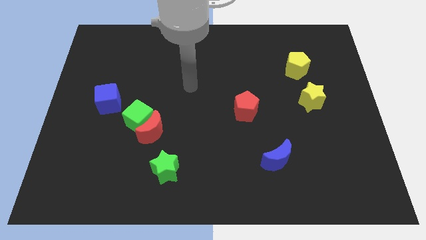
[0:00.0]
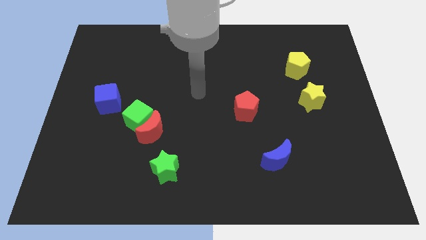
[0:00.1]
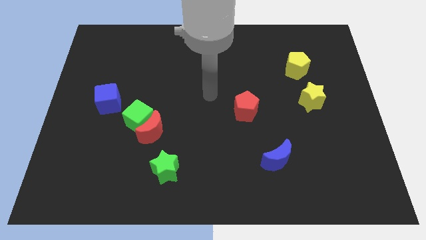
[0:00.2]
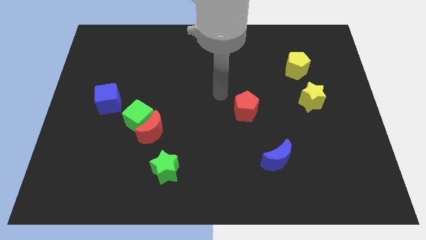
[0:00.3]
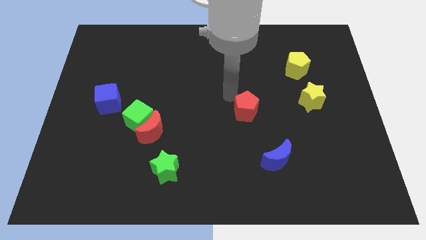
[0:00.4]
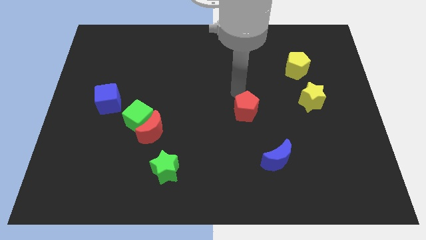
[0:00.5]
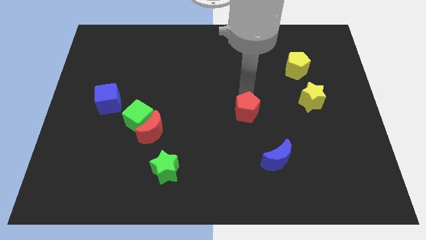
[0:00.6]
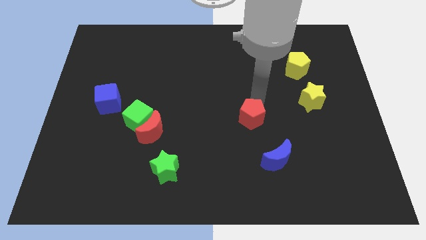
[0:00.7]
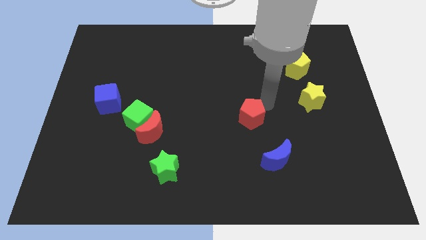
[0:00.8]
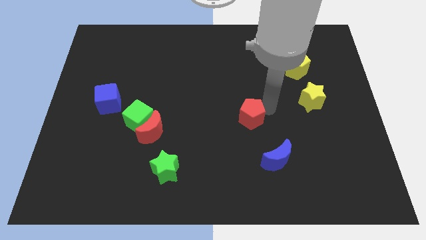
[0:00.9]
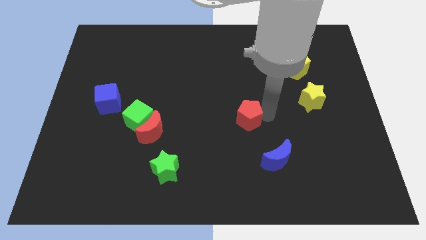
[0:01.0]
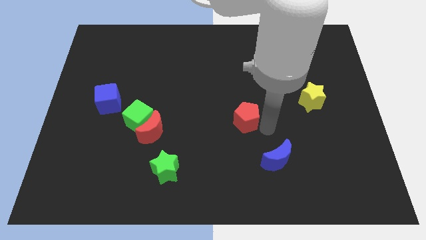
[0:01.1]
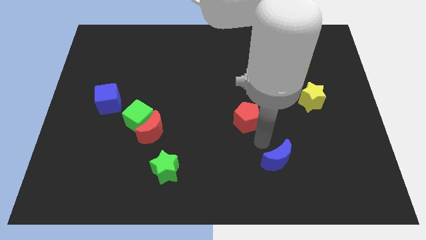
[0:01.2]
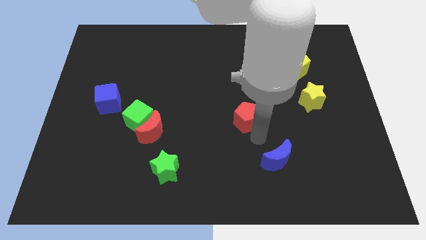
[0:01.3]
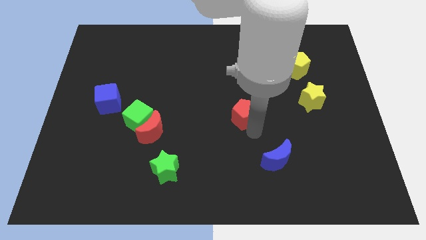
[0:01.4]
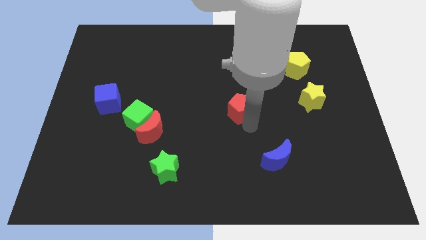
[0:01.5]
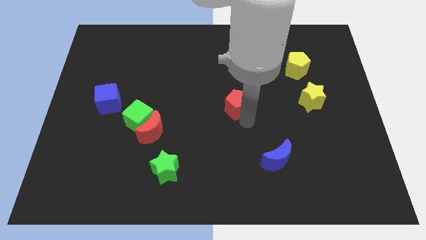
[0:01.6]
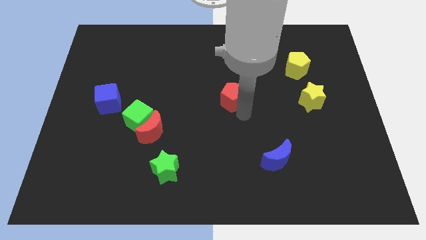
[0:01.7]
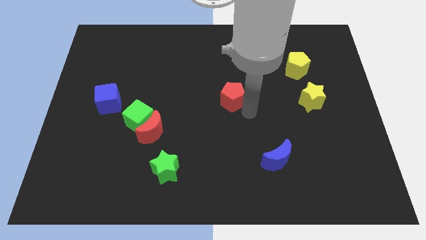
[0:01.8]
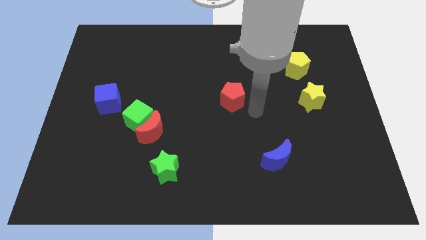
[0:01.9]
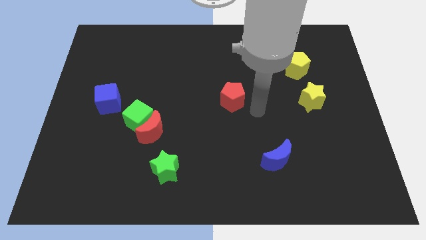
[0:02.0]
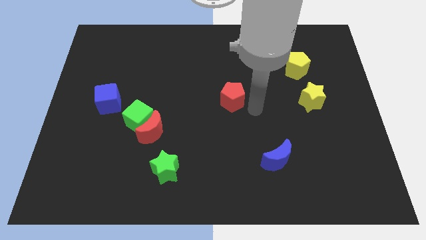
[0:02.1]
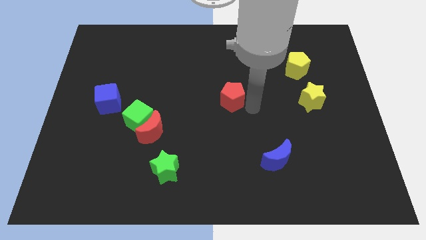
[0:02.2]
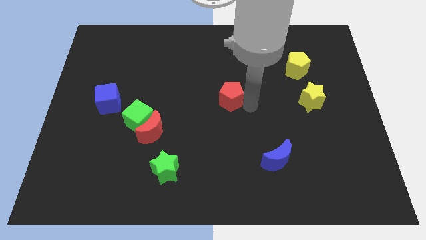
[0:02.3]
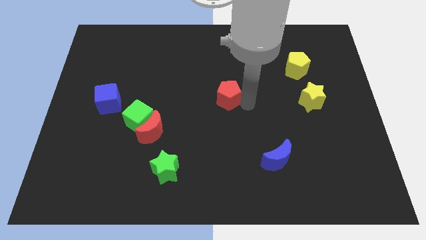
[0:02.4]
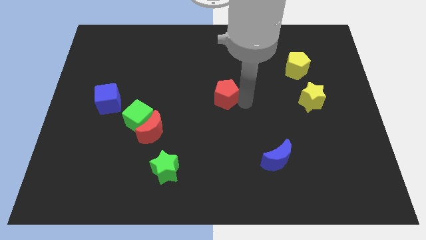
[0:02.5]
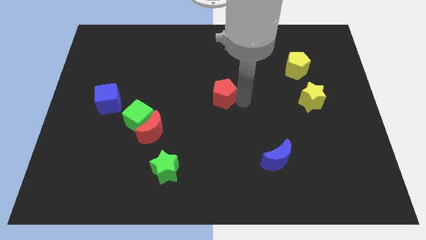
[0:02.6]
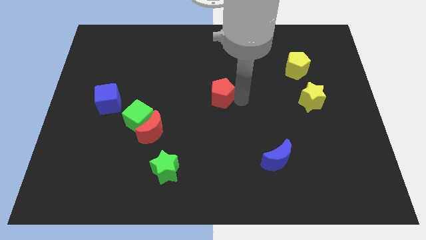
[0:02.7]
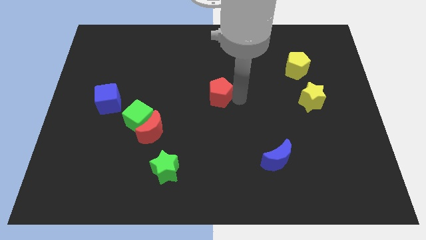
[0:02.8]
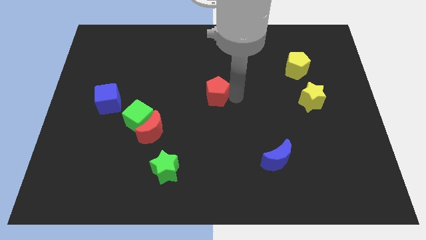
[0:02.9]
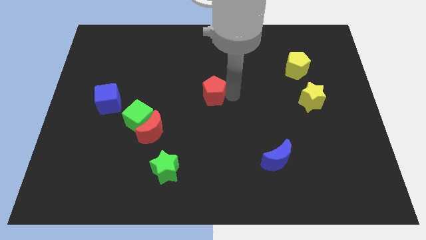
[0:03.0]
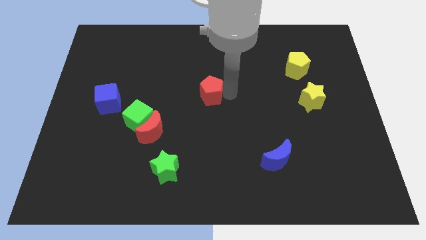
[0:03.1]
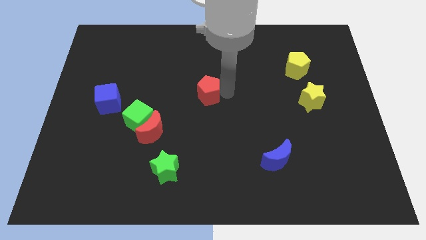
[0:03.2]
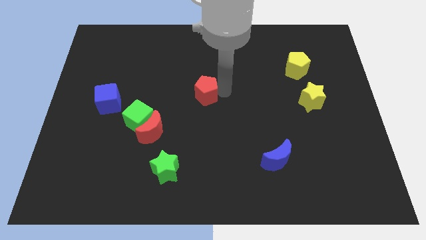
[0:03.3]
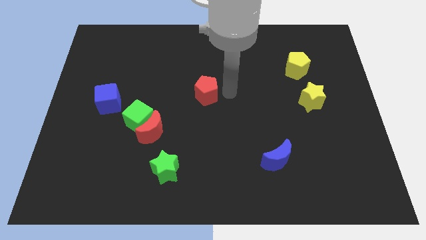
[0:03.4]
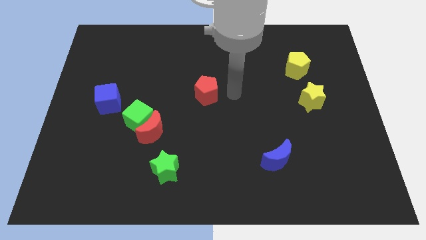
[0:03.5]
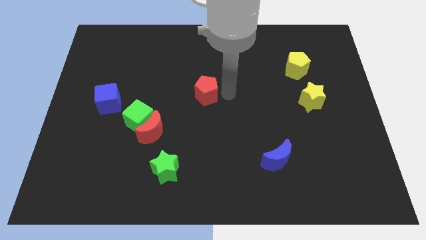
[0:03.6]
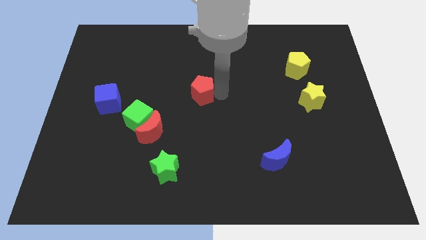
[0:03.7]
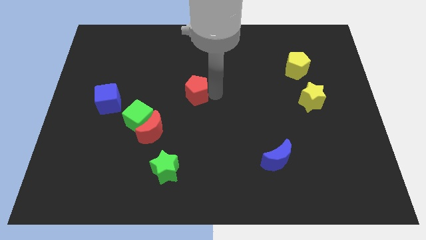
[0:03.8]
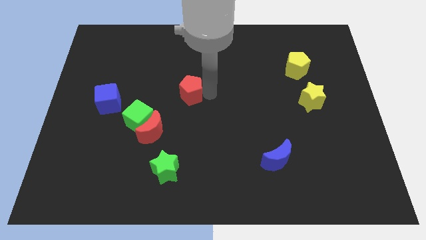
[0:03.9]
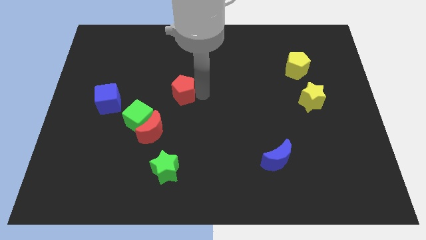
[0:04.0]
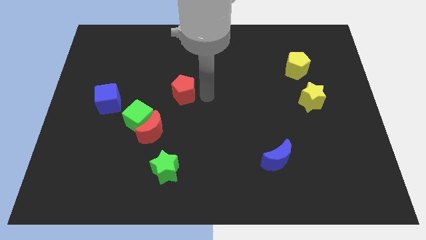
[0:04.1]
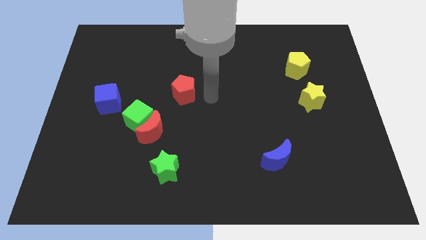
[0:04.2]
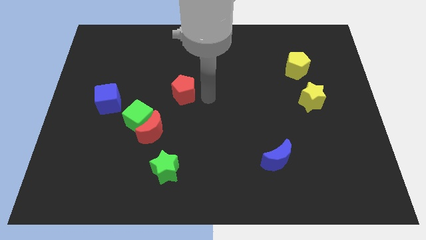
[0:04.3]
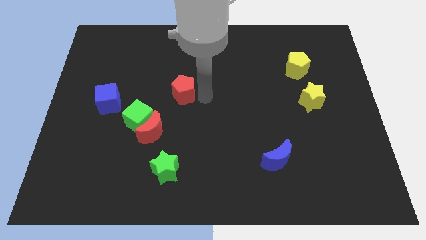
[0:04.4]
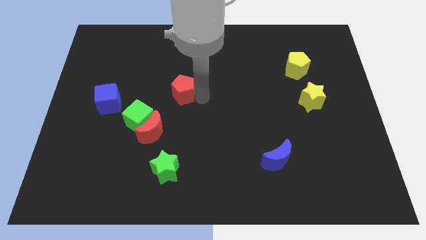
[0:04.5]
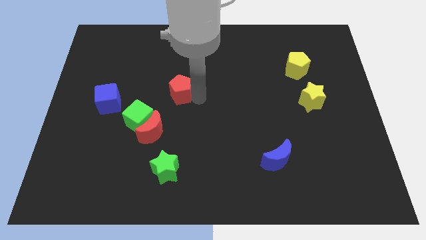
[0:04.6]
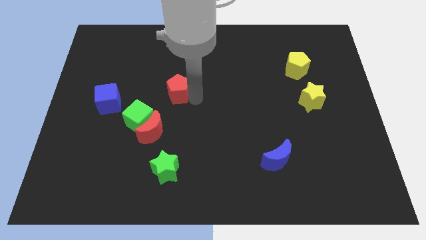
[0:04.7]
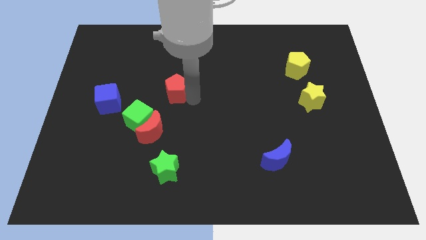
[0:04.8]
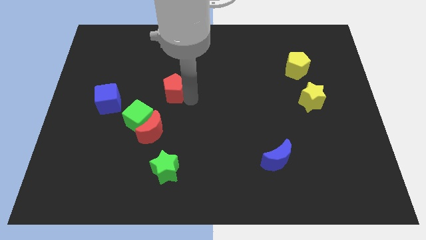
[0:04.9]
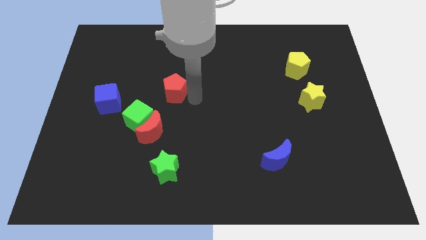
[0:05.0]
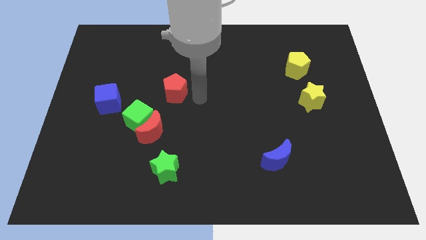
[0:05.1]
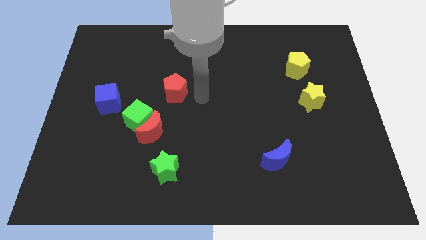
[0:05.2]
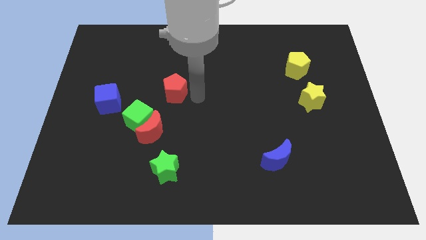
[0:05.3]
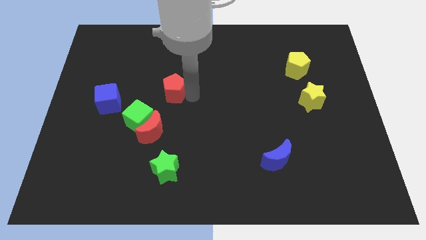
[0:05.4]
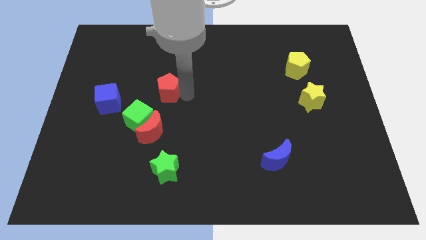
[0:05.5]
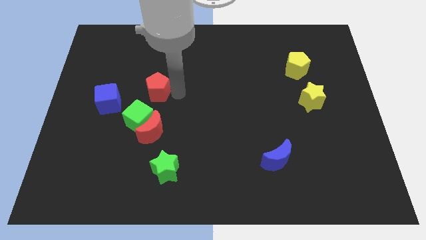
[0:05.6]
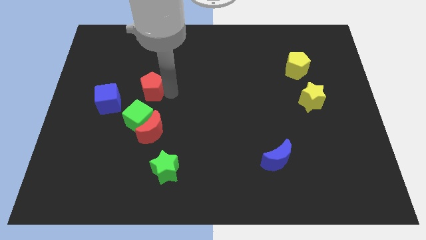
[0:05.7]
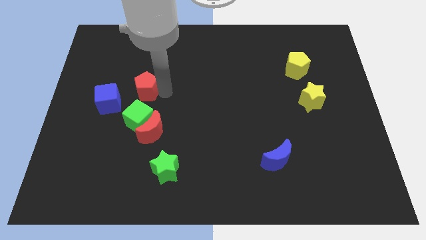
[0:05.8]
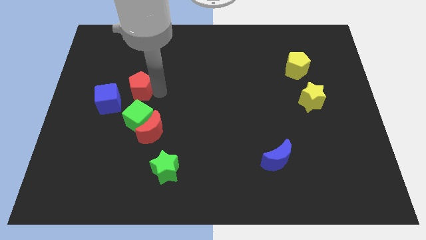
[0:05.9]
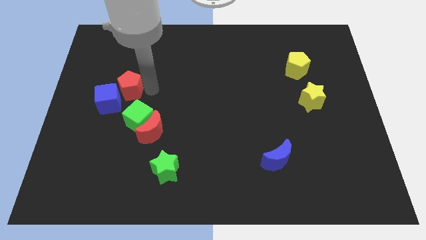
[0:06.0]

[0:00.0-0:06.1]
slide the red pentagon next to the blue cube

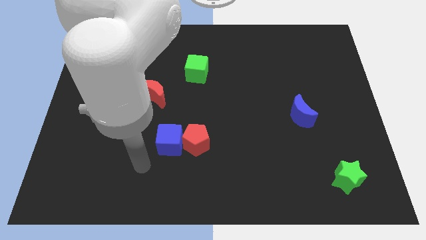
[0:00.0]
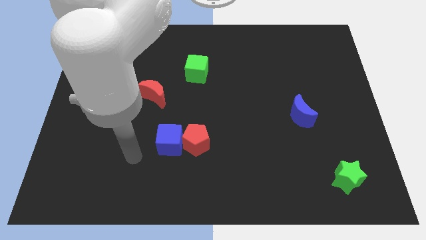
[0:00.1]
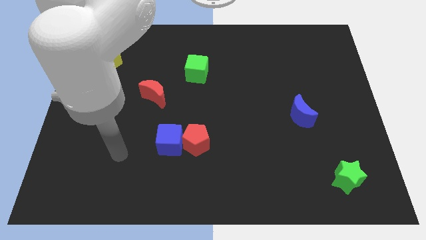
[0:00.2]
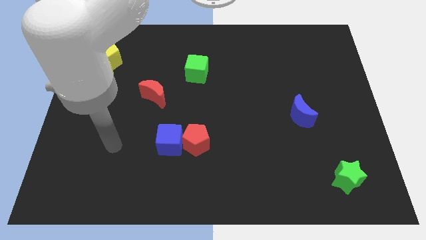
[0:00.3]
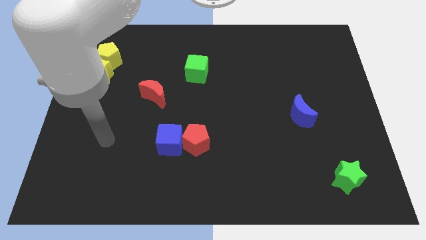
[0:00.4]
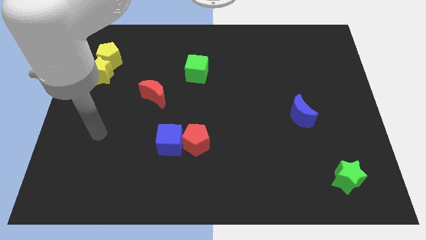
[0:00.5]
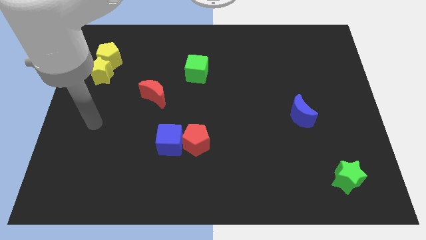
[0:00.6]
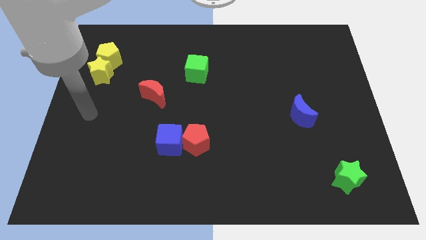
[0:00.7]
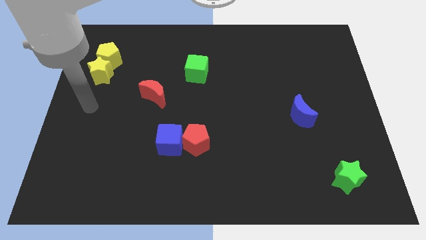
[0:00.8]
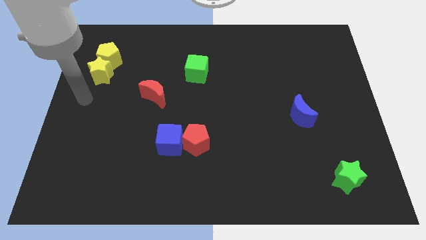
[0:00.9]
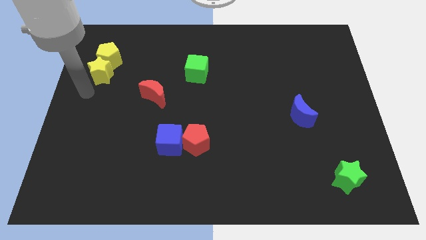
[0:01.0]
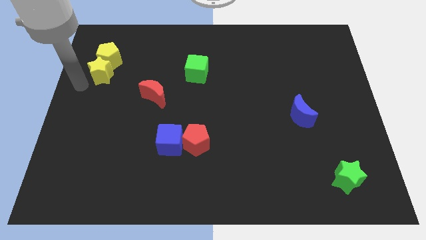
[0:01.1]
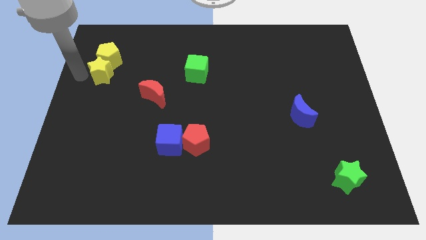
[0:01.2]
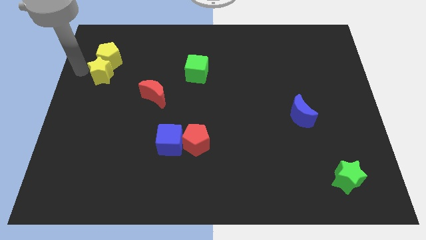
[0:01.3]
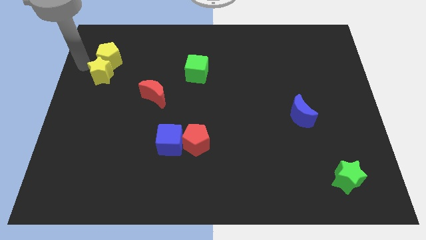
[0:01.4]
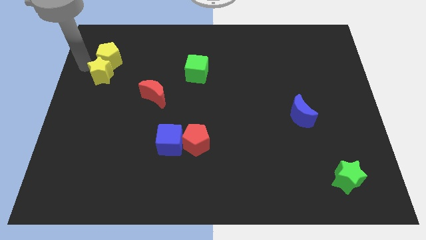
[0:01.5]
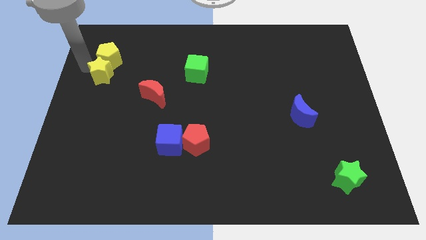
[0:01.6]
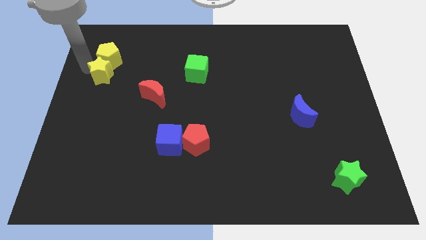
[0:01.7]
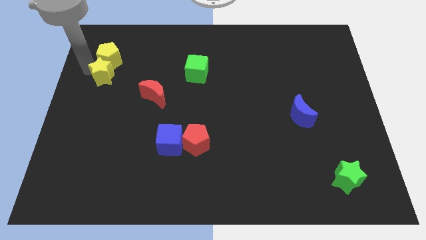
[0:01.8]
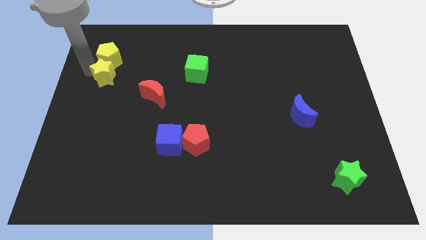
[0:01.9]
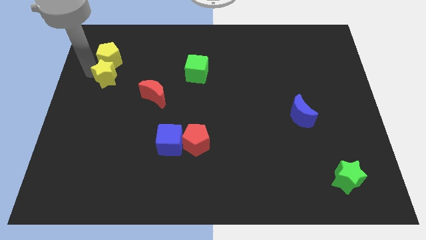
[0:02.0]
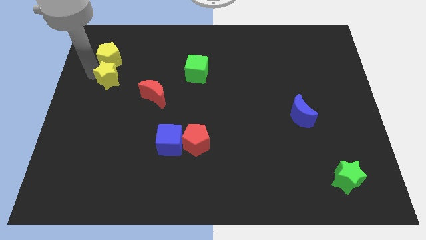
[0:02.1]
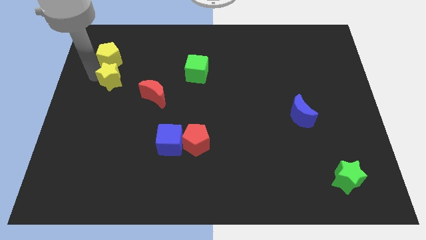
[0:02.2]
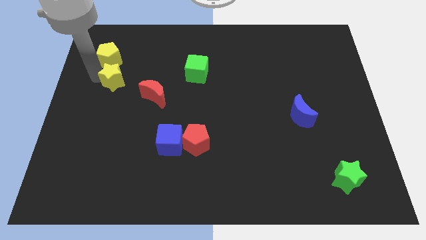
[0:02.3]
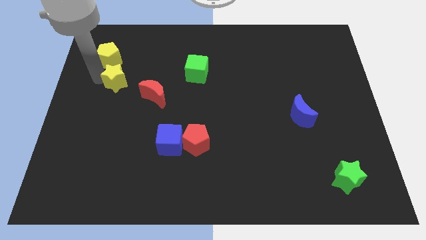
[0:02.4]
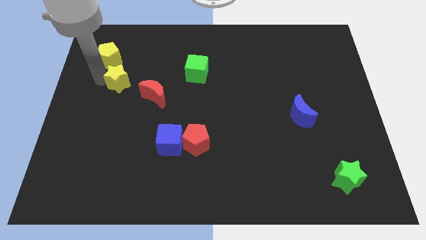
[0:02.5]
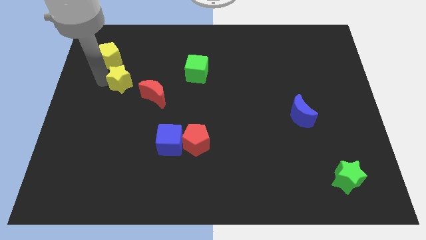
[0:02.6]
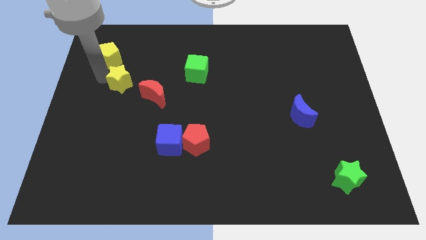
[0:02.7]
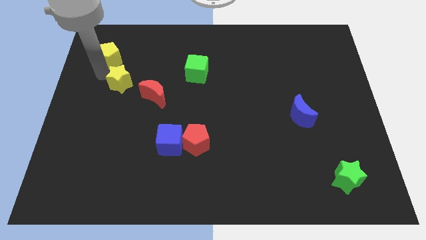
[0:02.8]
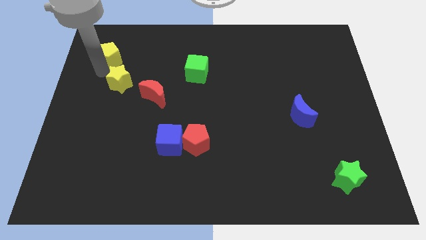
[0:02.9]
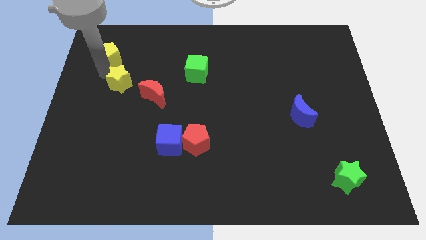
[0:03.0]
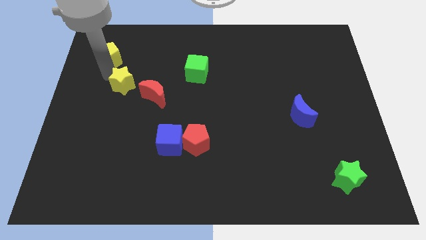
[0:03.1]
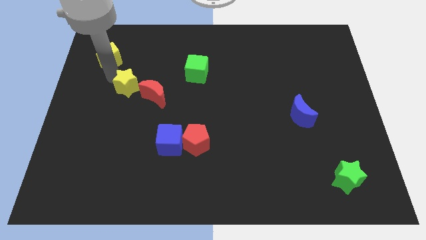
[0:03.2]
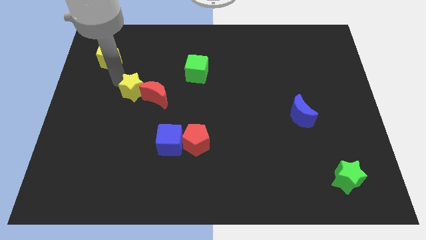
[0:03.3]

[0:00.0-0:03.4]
push the yellow star to the red moon
